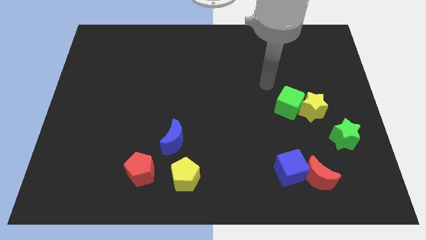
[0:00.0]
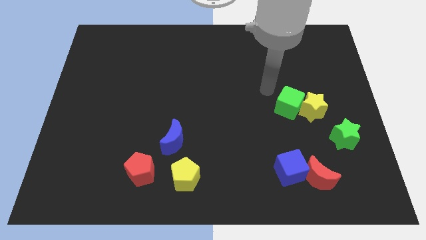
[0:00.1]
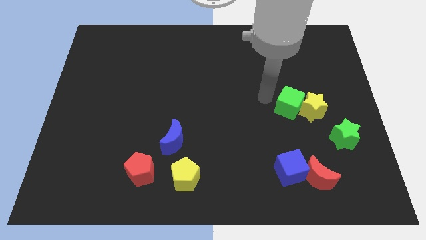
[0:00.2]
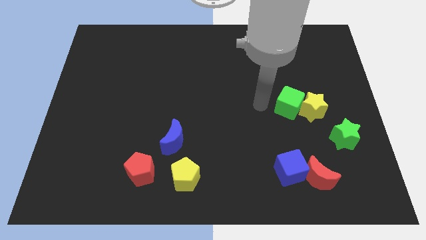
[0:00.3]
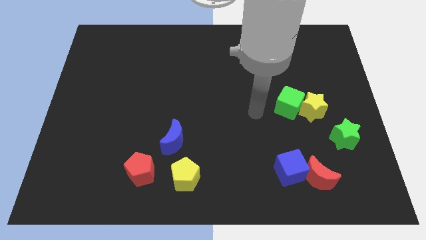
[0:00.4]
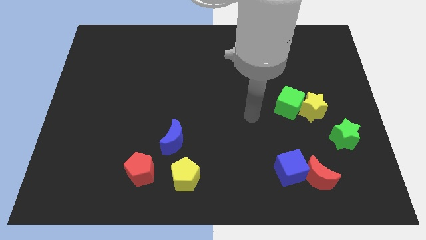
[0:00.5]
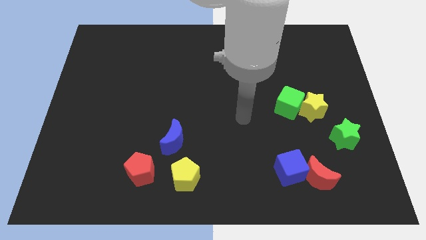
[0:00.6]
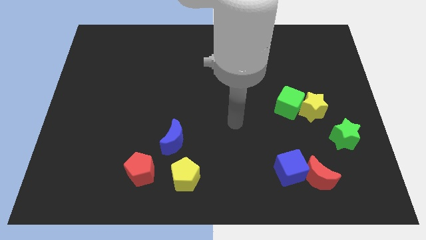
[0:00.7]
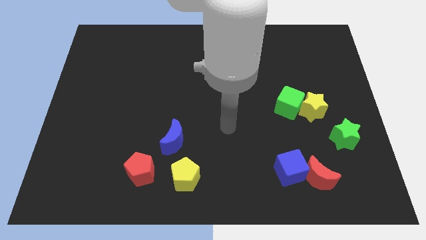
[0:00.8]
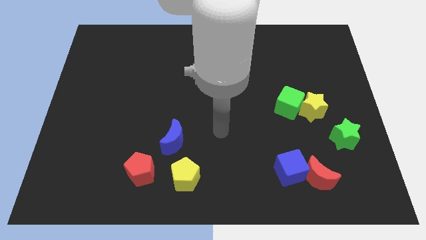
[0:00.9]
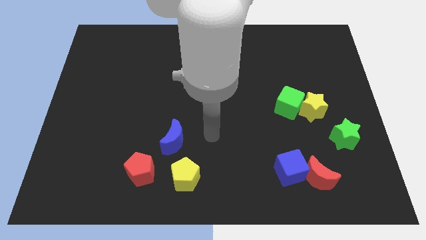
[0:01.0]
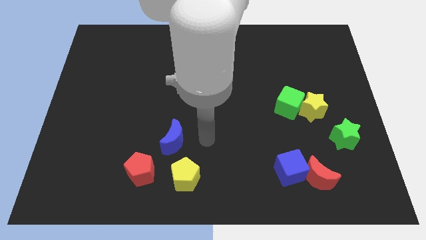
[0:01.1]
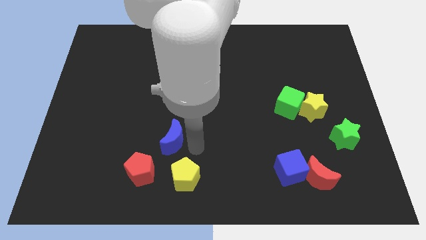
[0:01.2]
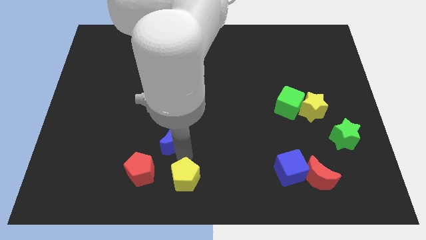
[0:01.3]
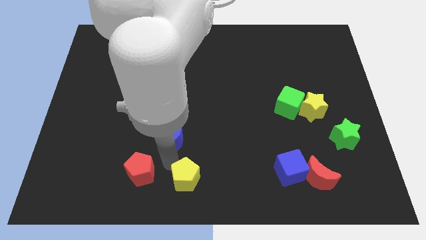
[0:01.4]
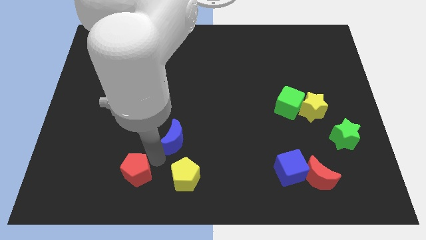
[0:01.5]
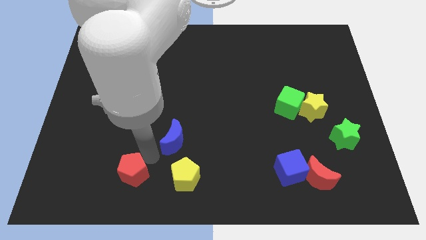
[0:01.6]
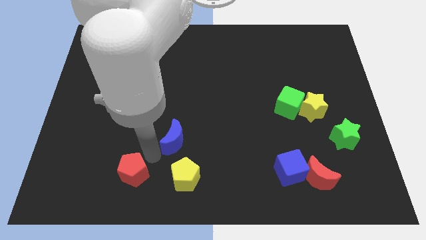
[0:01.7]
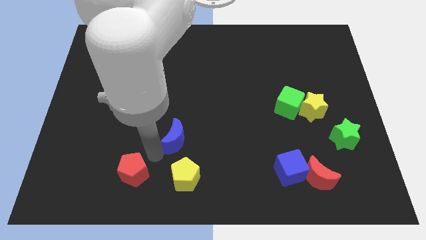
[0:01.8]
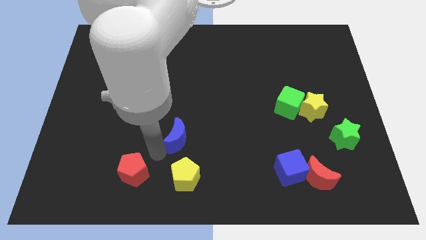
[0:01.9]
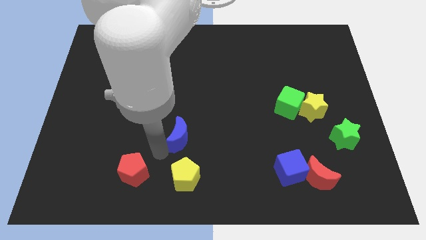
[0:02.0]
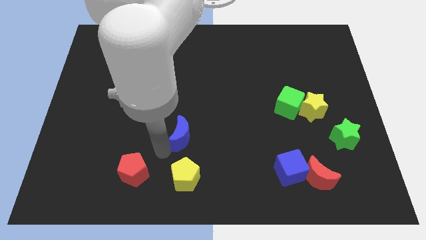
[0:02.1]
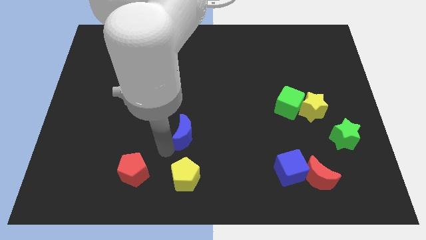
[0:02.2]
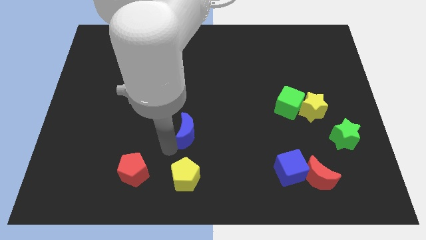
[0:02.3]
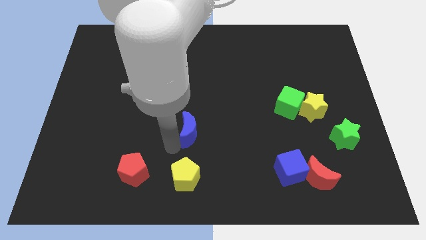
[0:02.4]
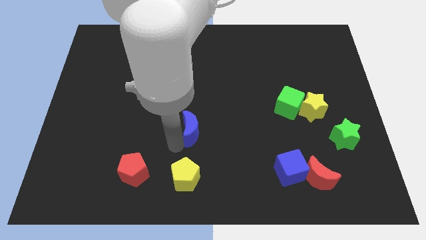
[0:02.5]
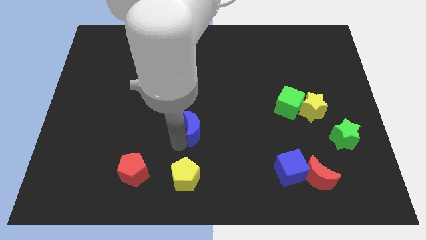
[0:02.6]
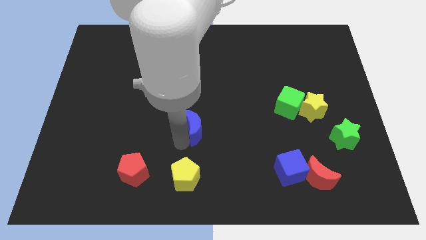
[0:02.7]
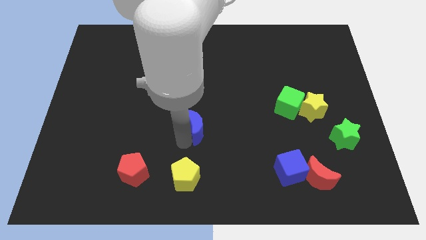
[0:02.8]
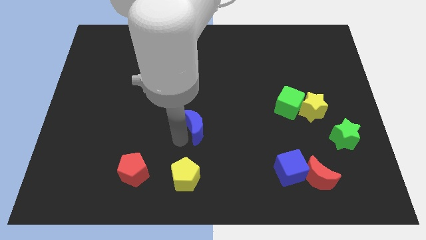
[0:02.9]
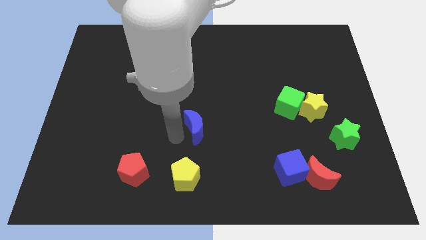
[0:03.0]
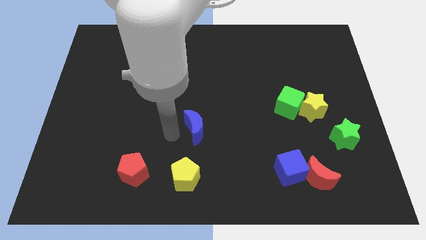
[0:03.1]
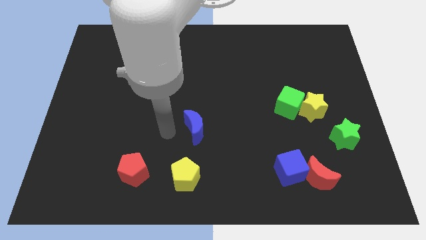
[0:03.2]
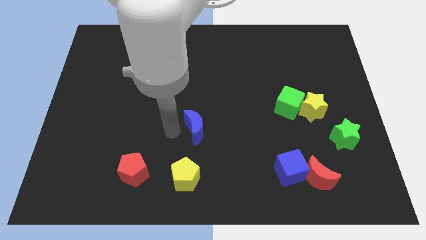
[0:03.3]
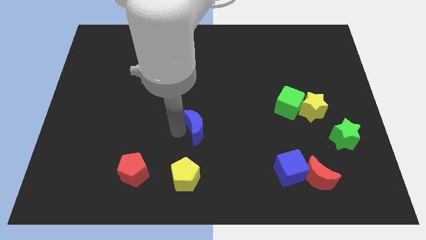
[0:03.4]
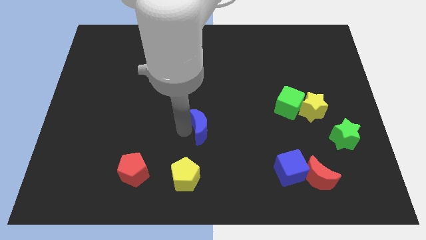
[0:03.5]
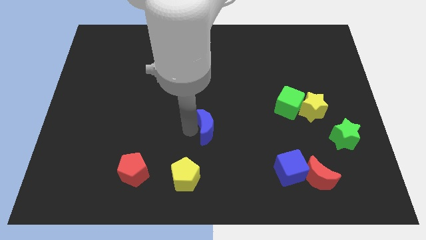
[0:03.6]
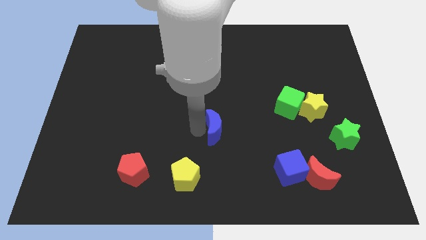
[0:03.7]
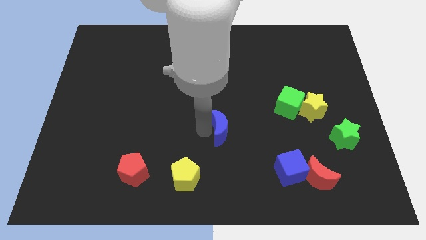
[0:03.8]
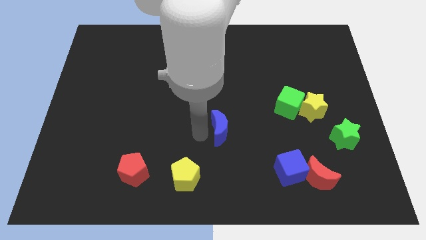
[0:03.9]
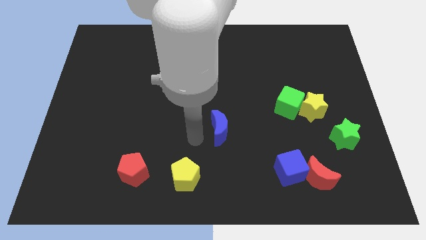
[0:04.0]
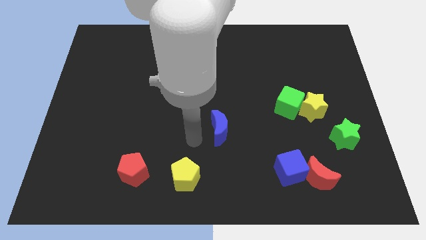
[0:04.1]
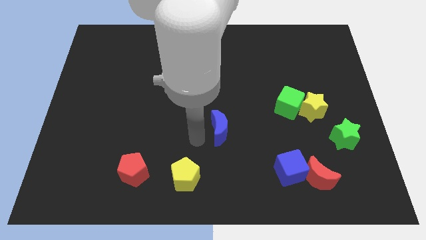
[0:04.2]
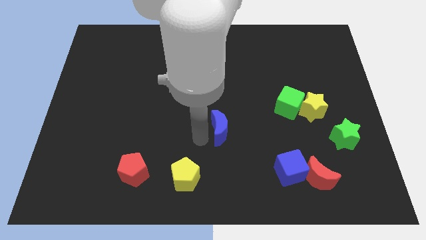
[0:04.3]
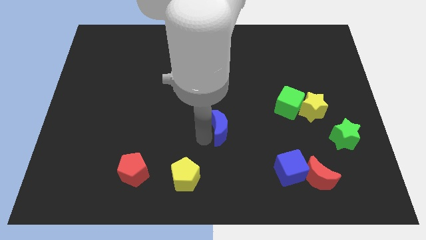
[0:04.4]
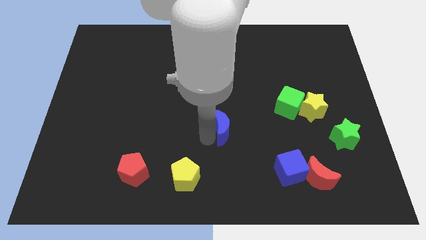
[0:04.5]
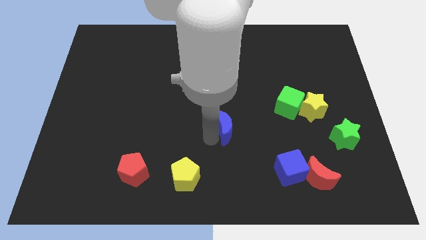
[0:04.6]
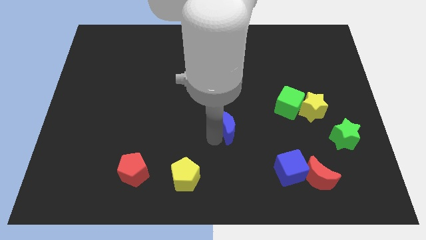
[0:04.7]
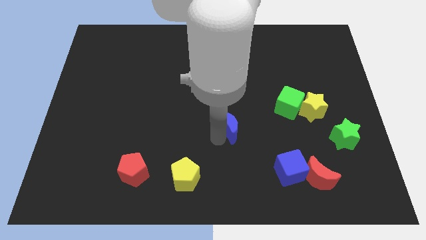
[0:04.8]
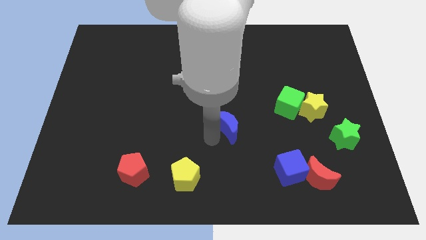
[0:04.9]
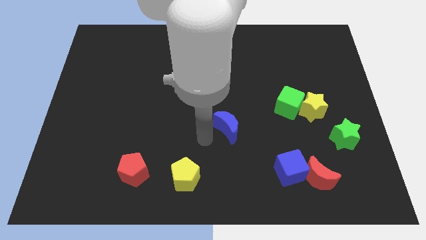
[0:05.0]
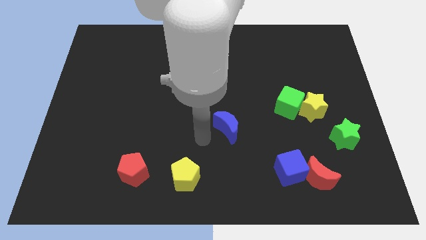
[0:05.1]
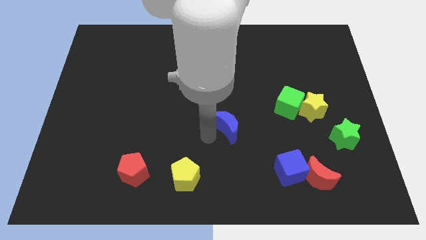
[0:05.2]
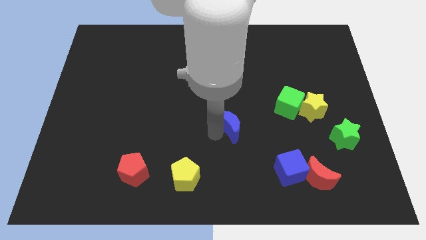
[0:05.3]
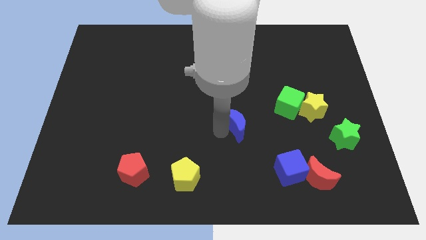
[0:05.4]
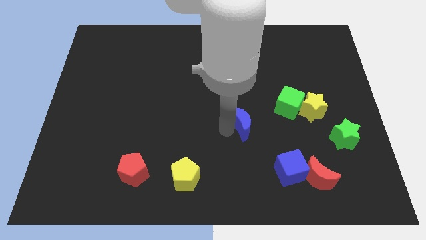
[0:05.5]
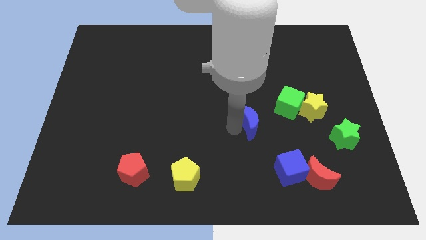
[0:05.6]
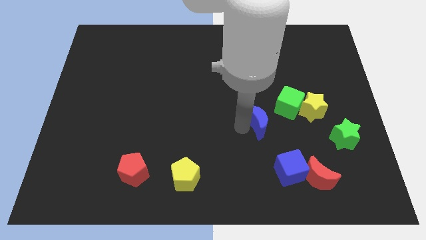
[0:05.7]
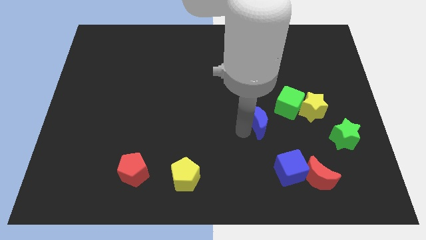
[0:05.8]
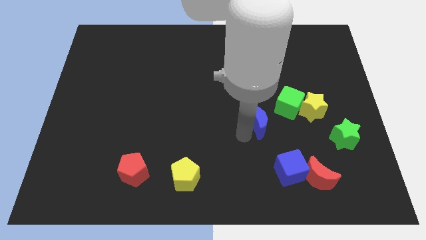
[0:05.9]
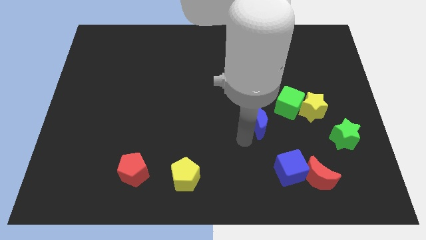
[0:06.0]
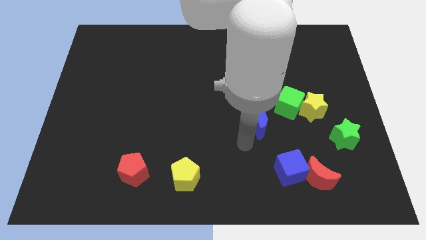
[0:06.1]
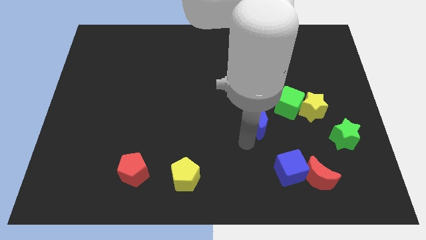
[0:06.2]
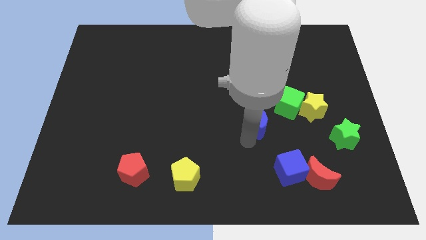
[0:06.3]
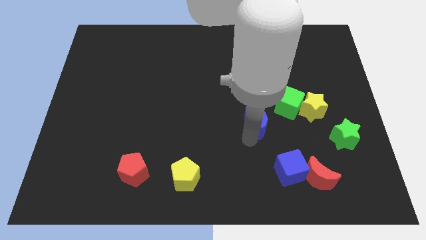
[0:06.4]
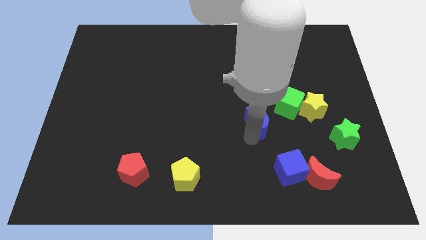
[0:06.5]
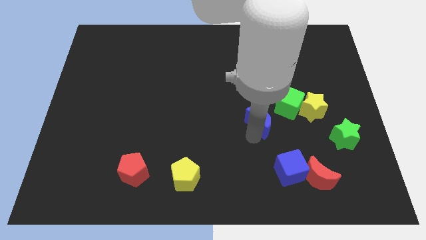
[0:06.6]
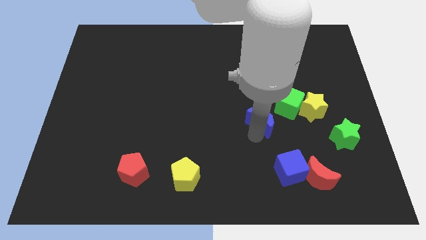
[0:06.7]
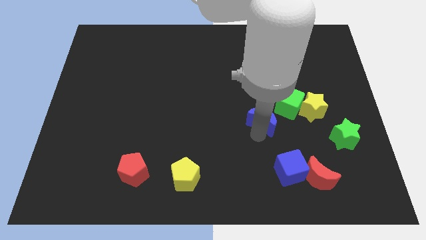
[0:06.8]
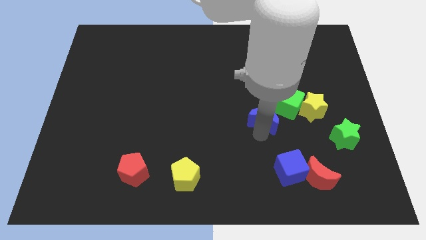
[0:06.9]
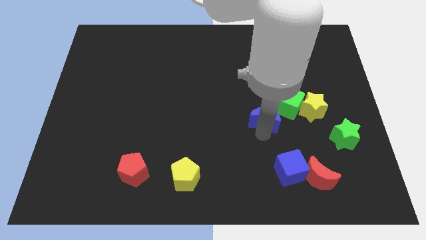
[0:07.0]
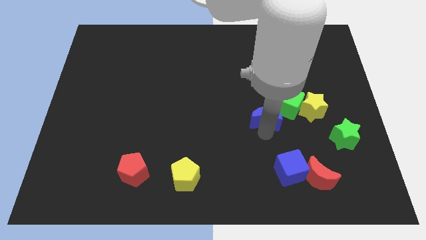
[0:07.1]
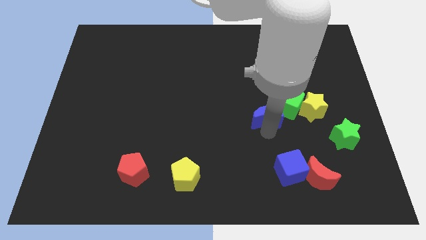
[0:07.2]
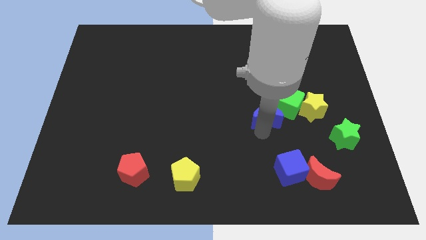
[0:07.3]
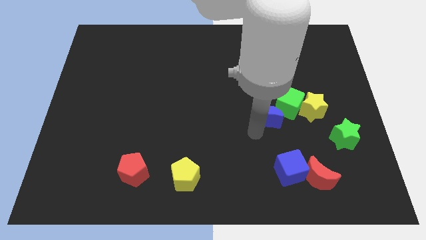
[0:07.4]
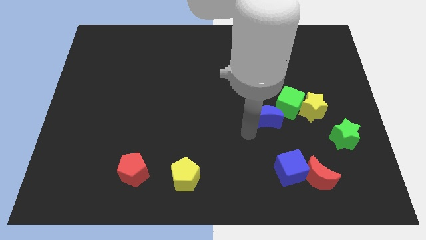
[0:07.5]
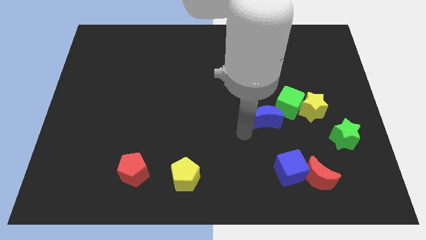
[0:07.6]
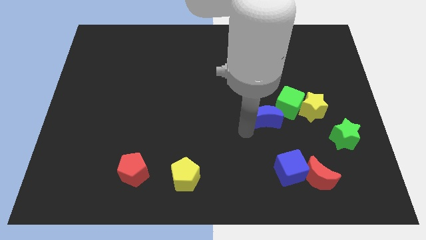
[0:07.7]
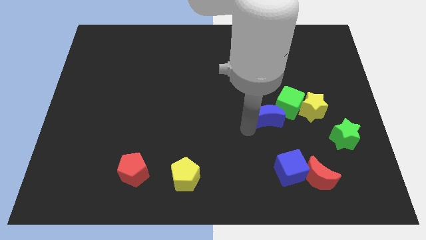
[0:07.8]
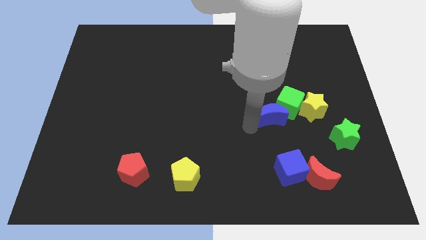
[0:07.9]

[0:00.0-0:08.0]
put the blue moon to the green cube
